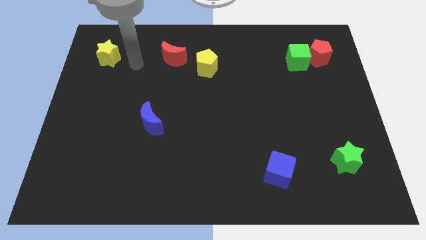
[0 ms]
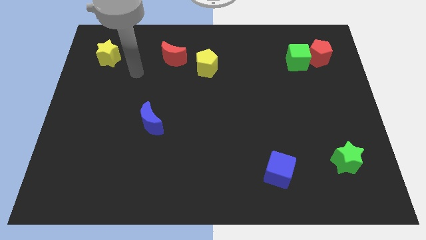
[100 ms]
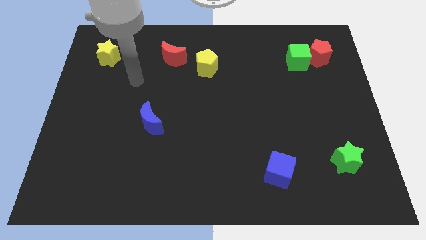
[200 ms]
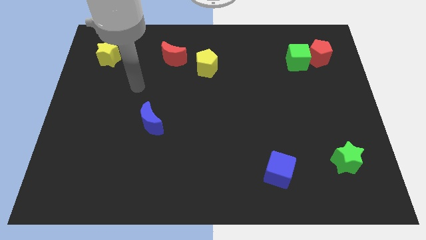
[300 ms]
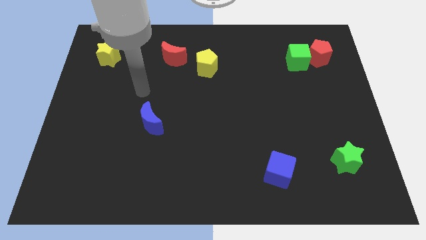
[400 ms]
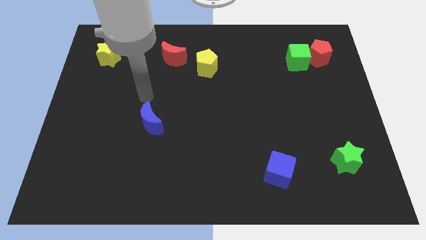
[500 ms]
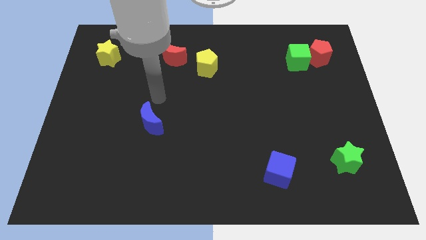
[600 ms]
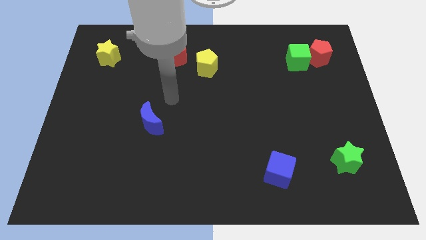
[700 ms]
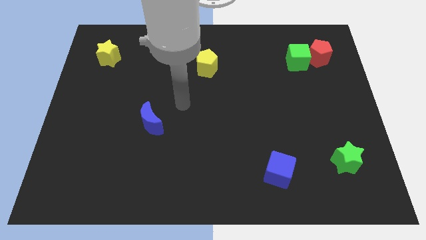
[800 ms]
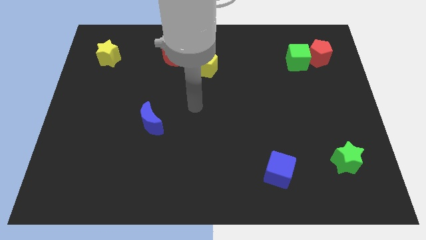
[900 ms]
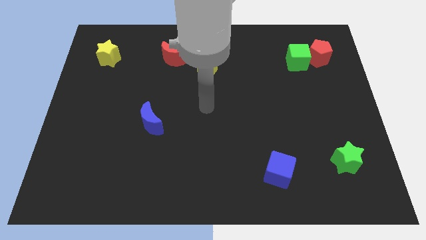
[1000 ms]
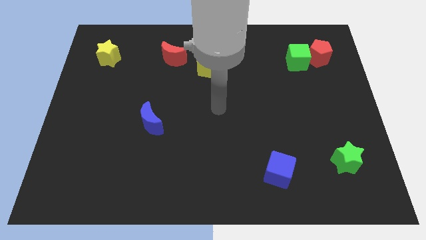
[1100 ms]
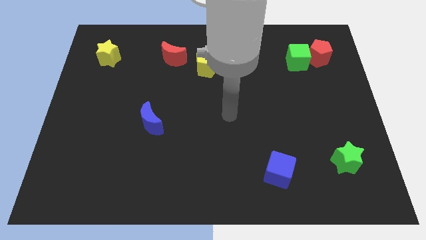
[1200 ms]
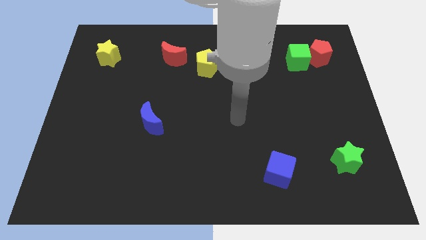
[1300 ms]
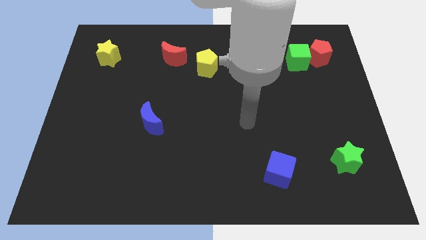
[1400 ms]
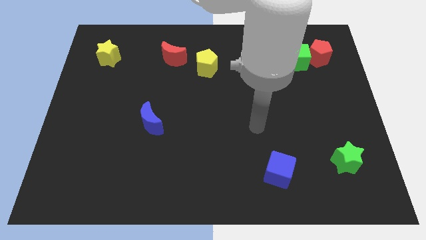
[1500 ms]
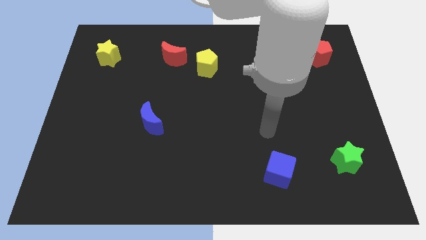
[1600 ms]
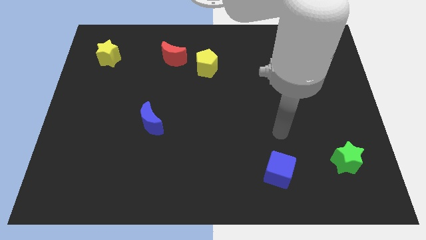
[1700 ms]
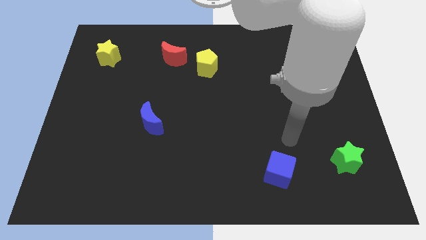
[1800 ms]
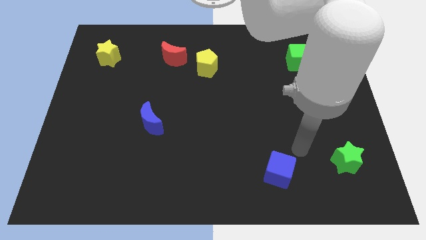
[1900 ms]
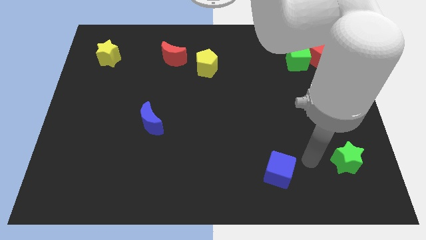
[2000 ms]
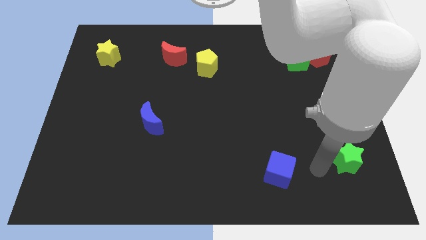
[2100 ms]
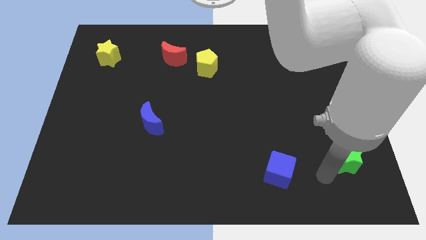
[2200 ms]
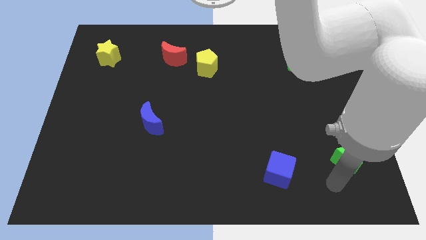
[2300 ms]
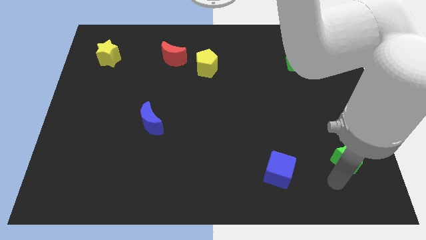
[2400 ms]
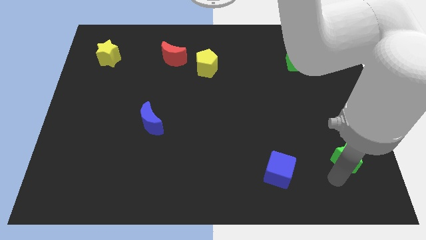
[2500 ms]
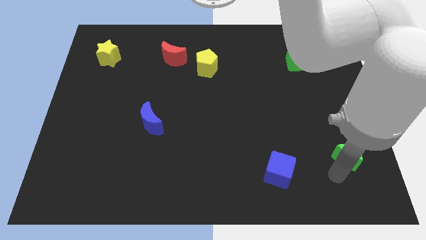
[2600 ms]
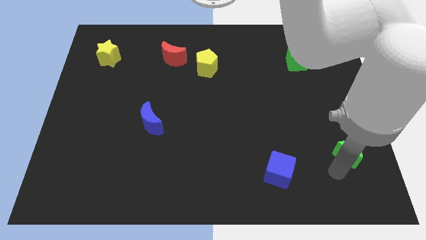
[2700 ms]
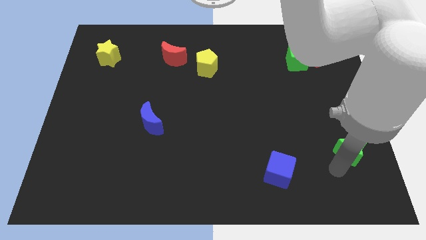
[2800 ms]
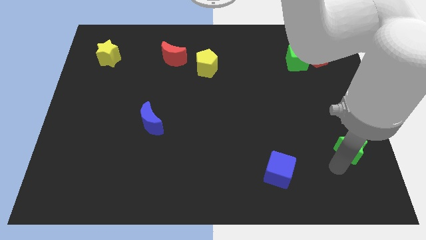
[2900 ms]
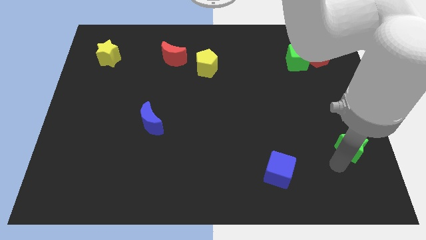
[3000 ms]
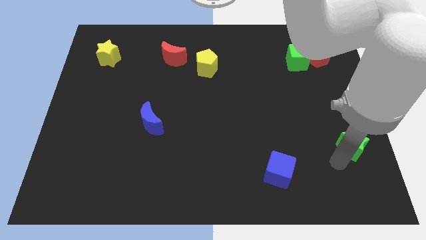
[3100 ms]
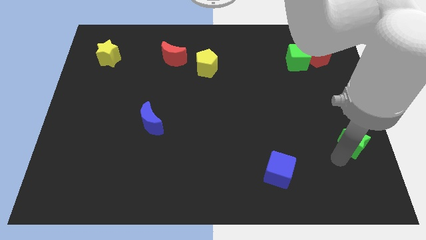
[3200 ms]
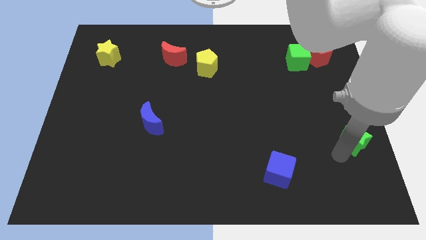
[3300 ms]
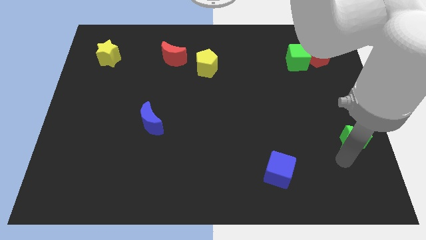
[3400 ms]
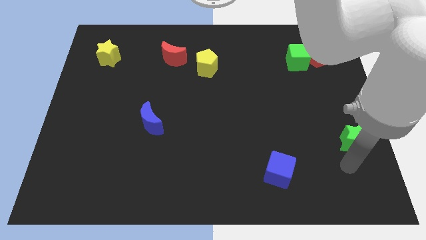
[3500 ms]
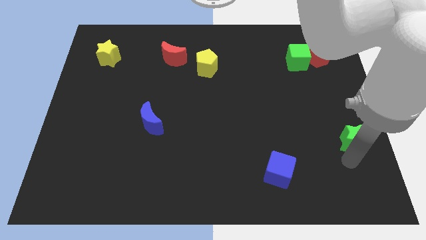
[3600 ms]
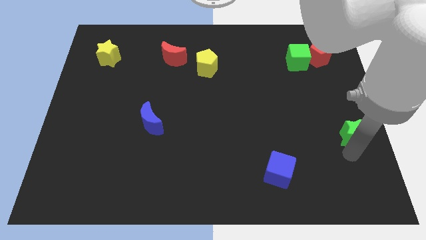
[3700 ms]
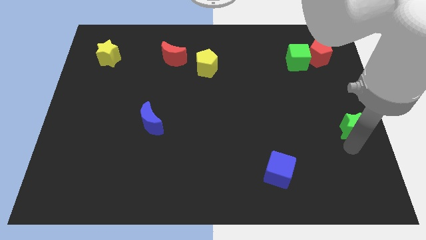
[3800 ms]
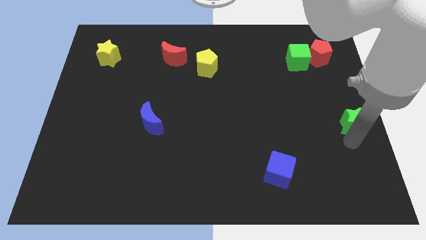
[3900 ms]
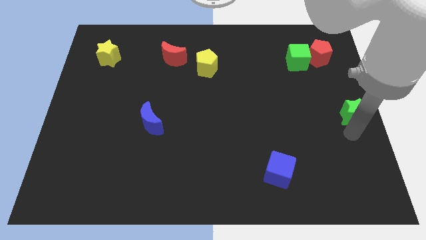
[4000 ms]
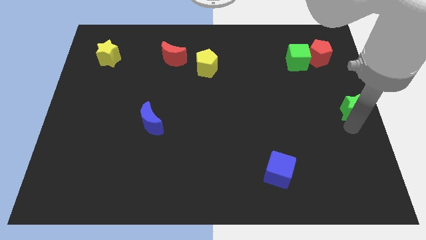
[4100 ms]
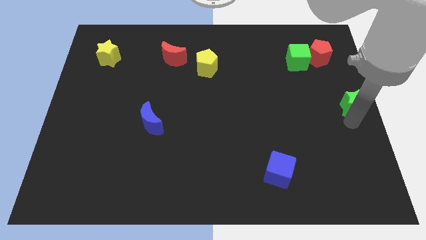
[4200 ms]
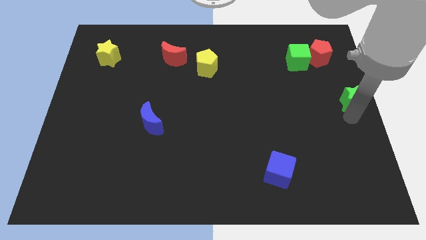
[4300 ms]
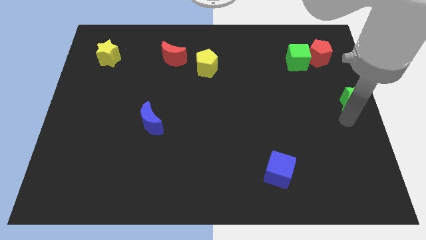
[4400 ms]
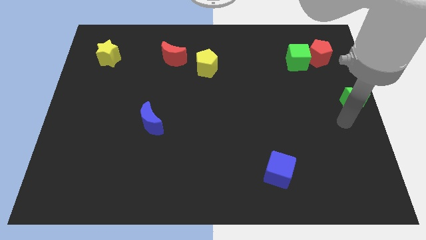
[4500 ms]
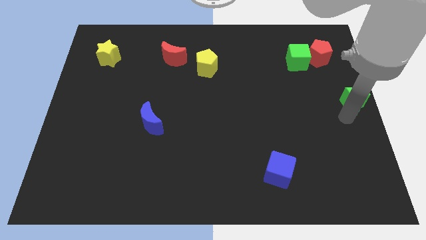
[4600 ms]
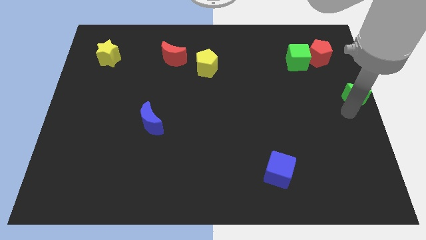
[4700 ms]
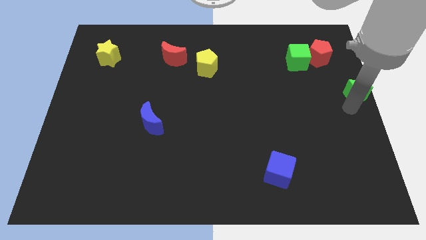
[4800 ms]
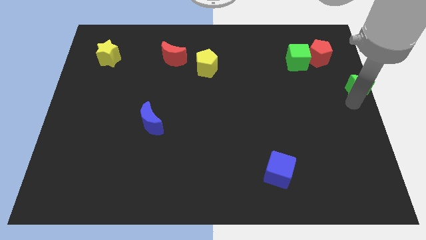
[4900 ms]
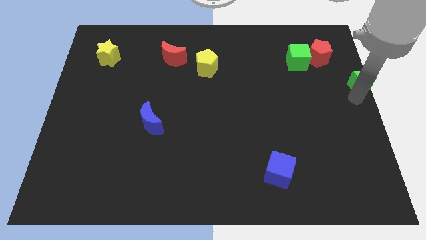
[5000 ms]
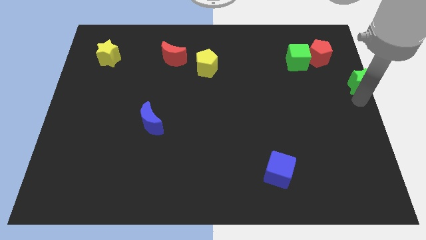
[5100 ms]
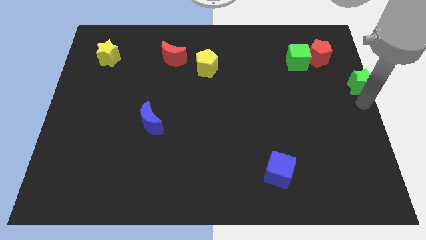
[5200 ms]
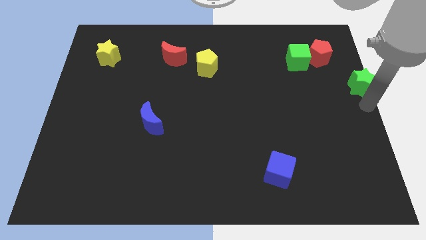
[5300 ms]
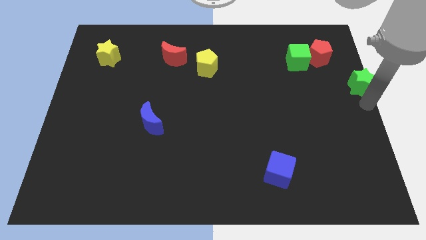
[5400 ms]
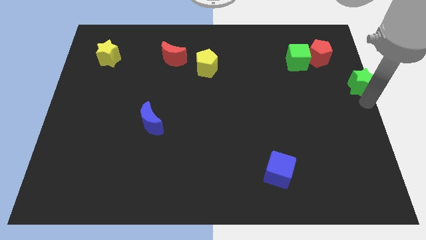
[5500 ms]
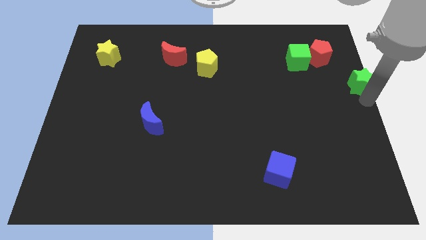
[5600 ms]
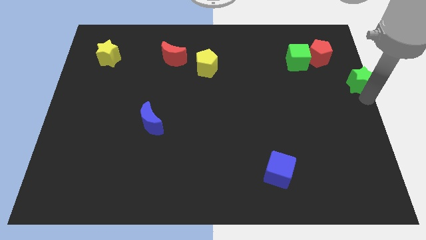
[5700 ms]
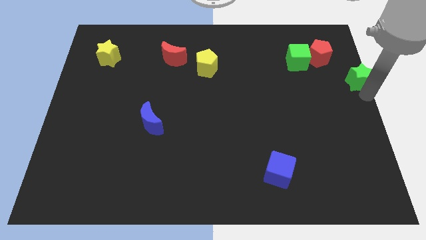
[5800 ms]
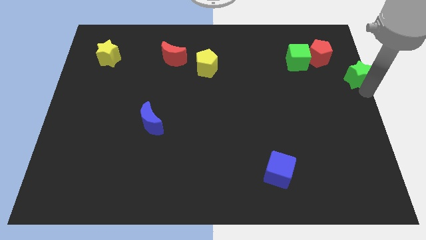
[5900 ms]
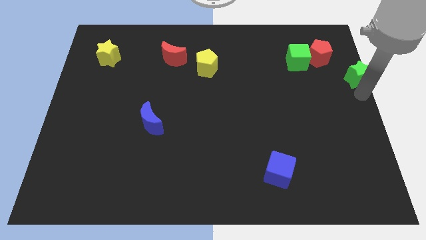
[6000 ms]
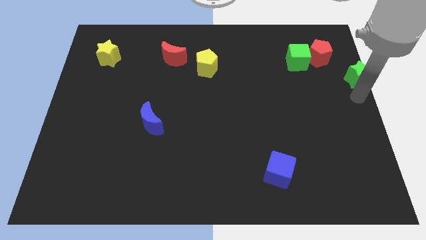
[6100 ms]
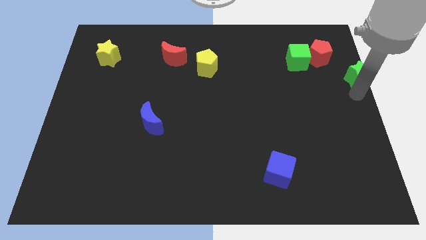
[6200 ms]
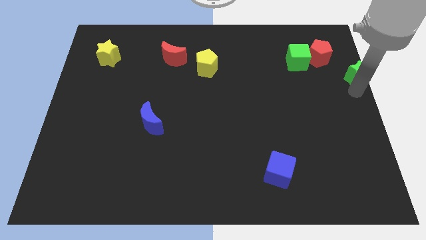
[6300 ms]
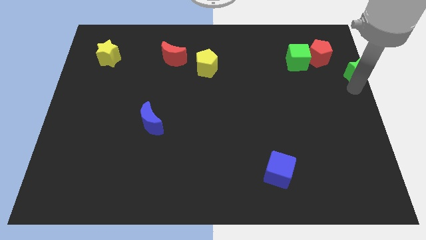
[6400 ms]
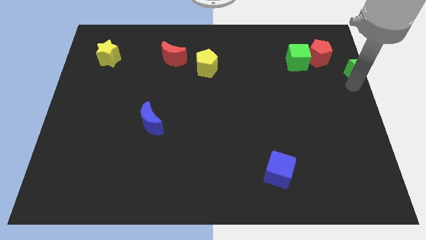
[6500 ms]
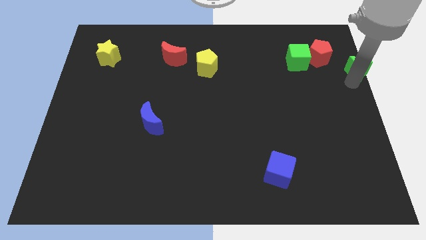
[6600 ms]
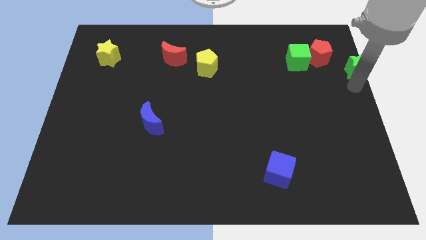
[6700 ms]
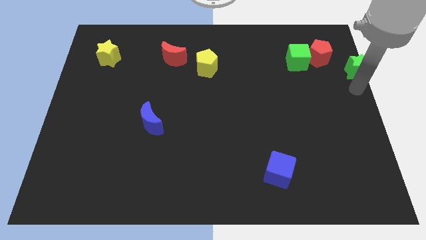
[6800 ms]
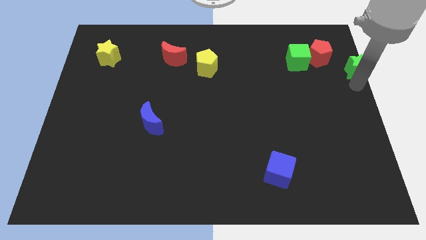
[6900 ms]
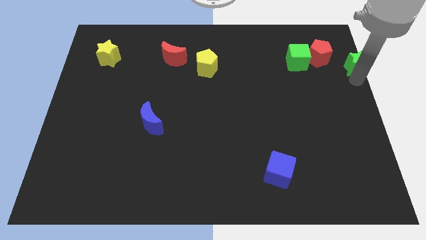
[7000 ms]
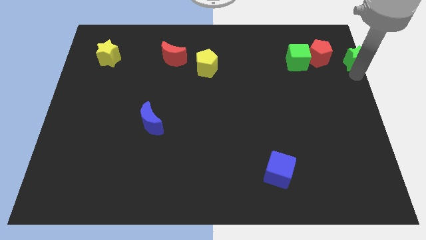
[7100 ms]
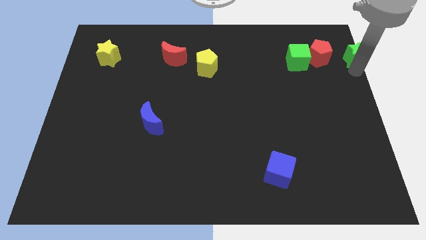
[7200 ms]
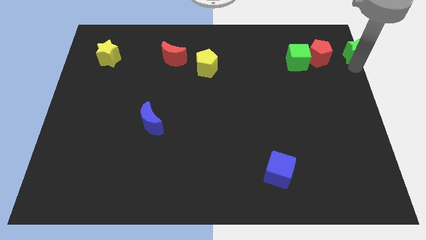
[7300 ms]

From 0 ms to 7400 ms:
put the green star to the top right corner
